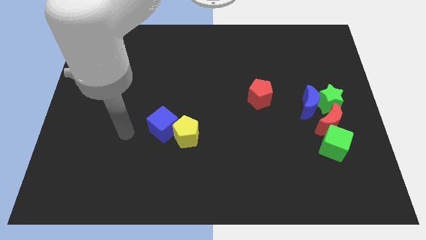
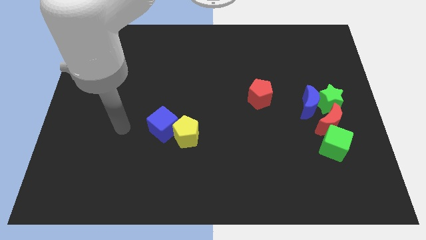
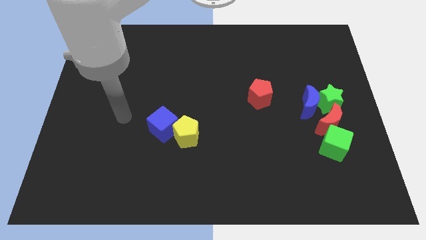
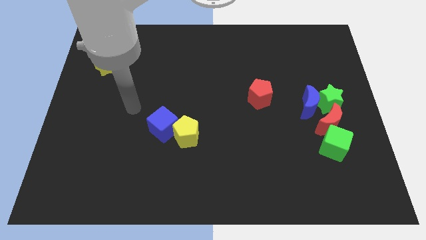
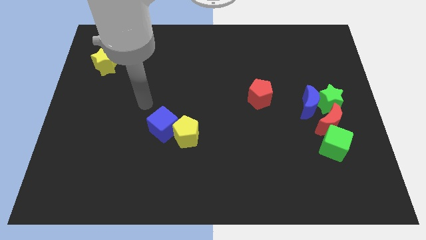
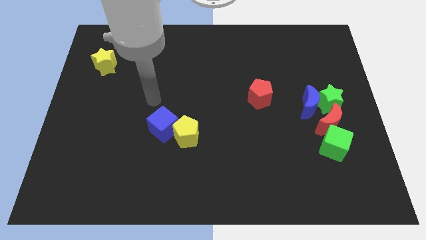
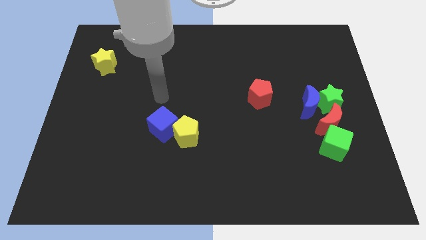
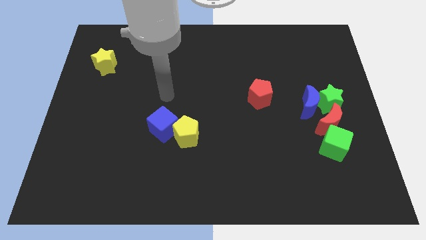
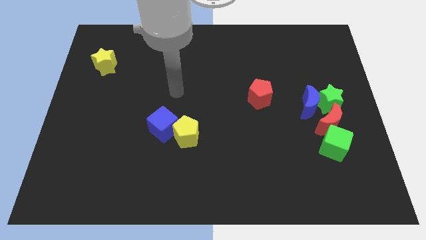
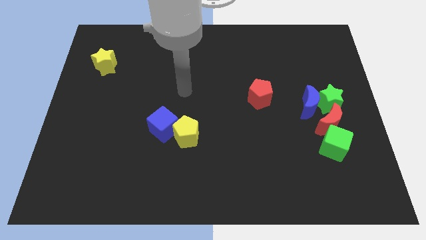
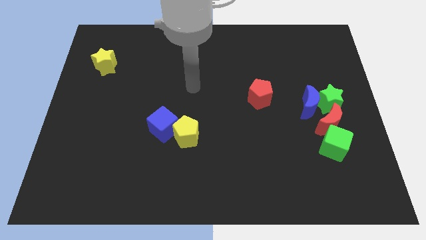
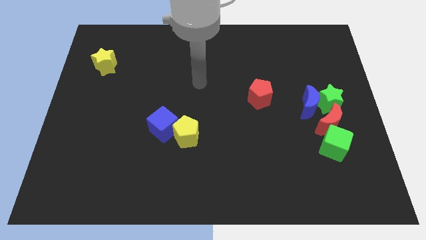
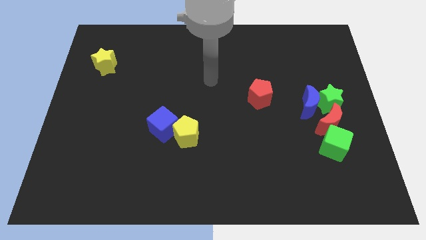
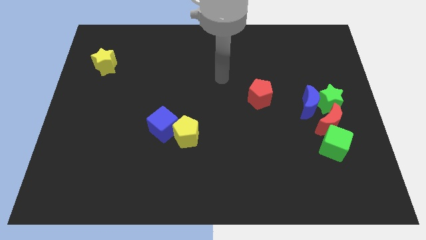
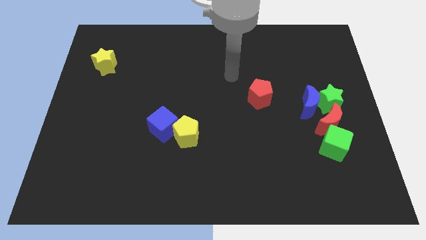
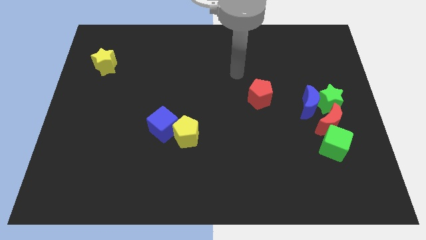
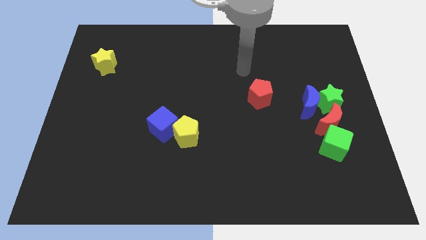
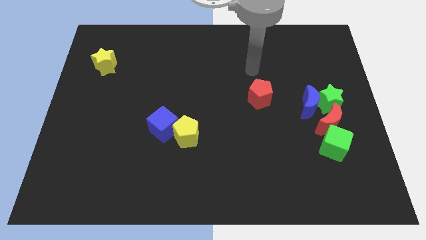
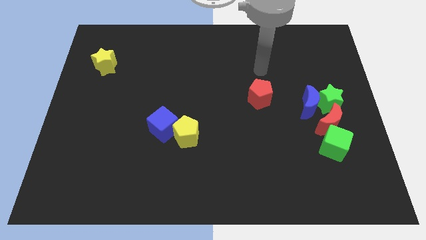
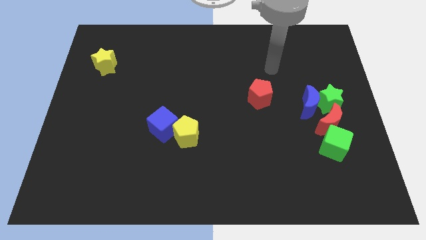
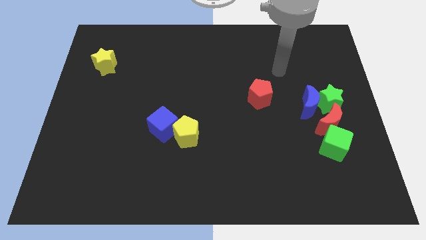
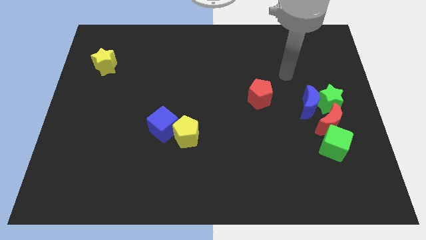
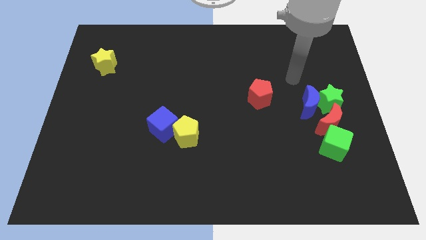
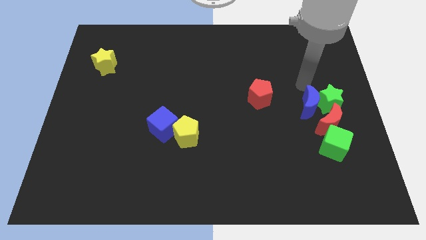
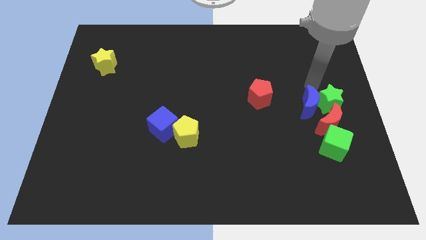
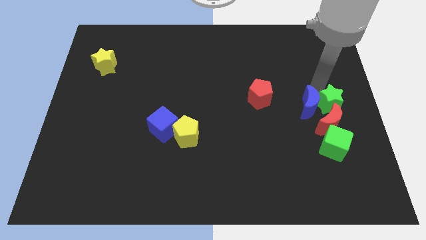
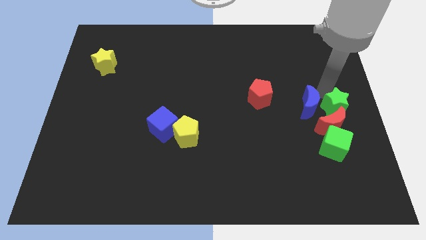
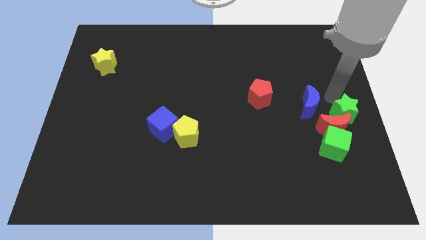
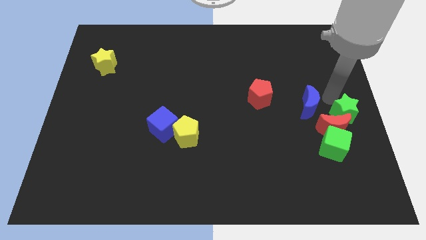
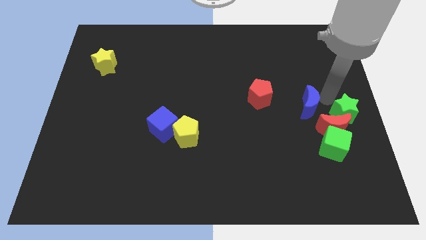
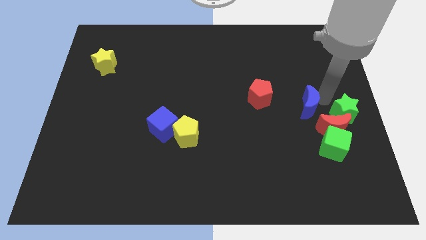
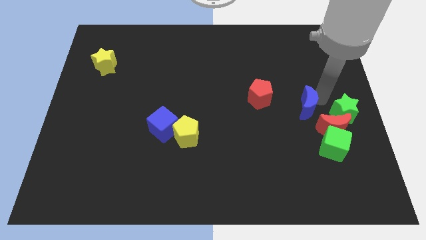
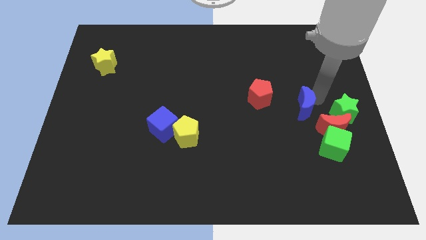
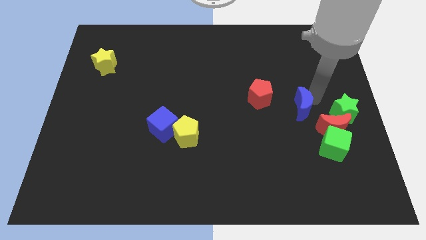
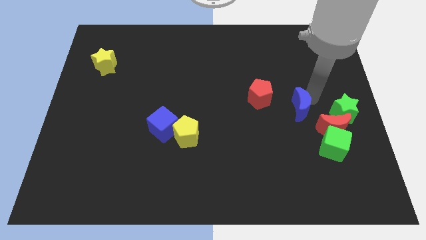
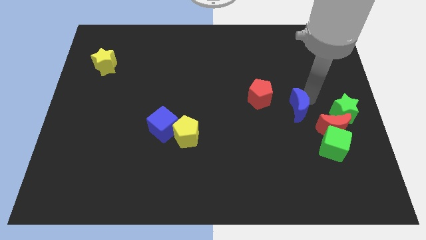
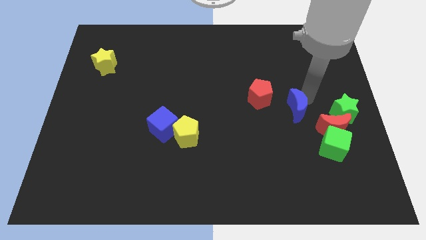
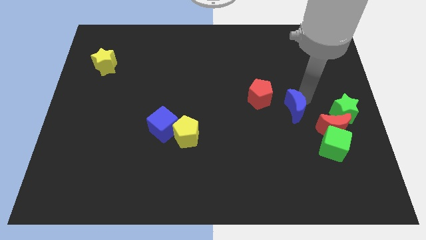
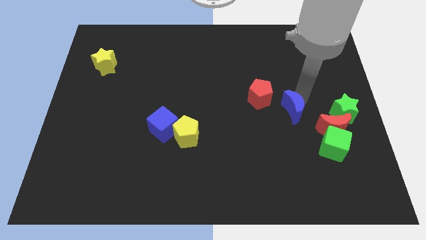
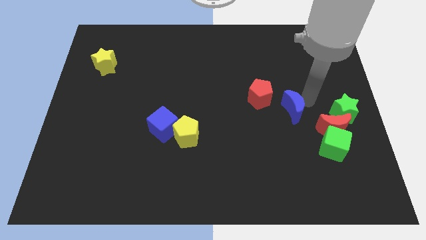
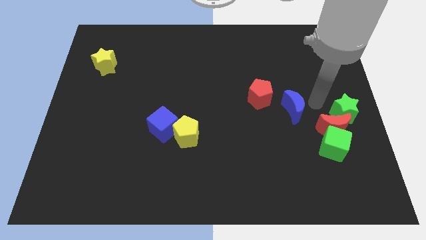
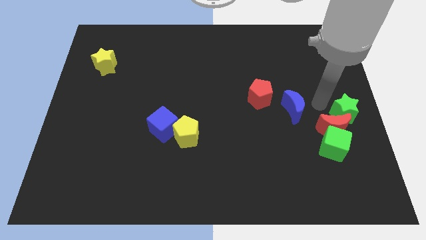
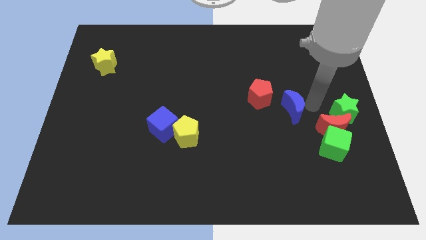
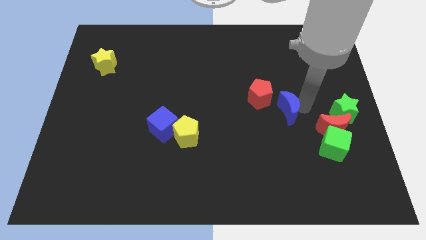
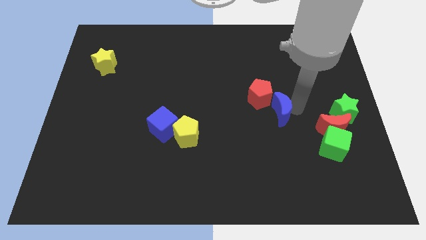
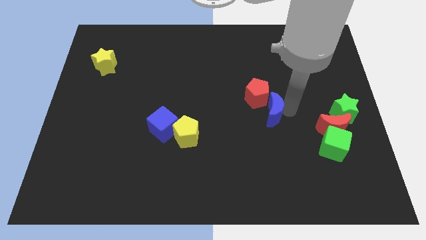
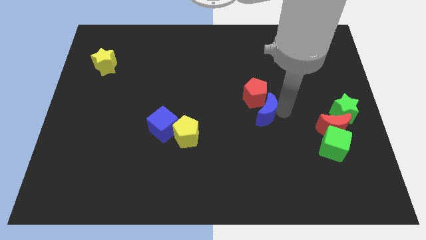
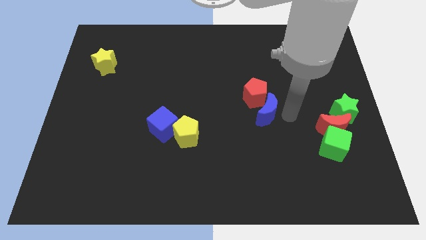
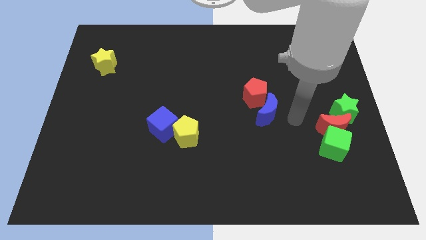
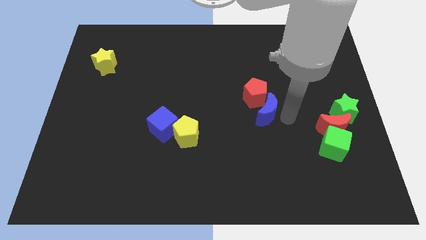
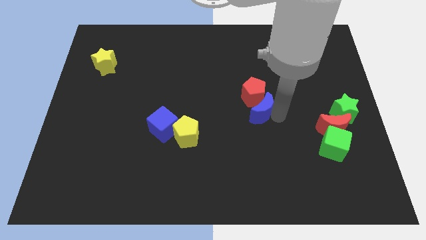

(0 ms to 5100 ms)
put the blue moon to the middle

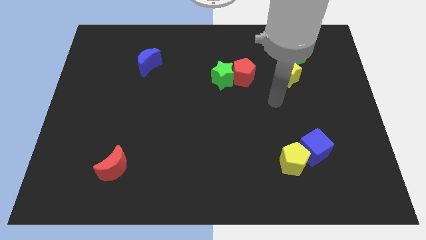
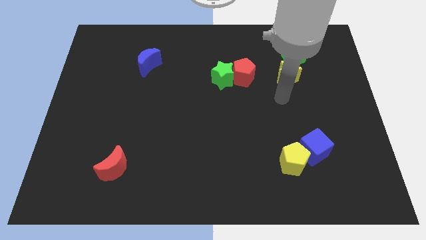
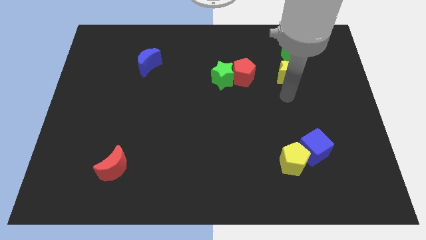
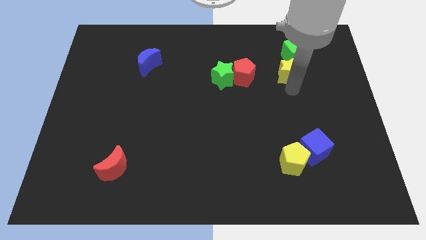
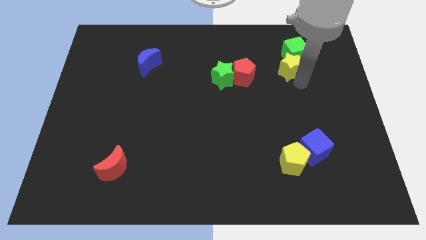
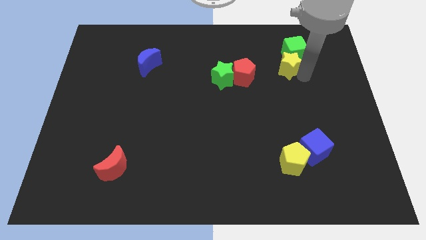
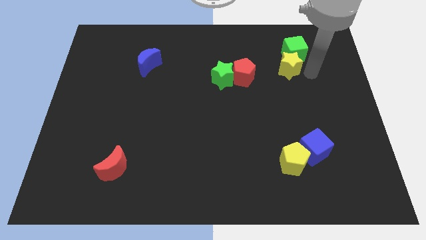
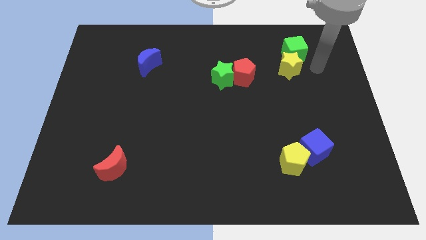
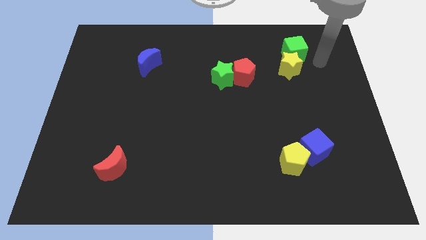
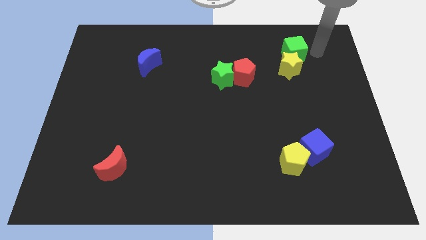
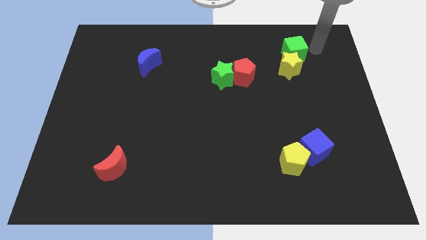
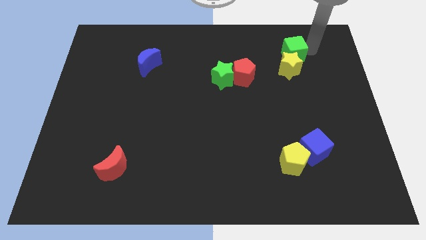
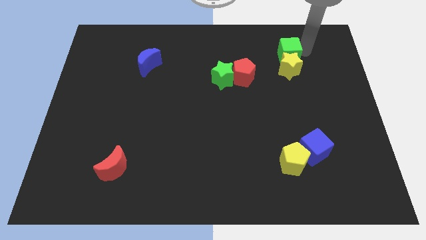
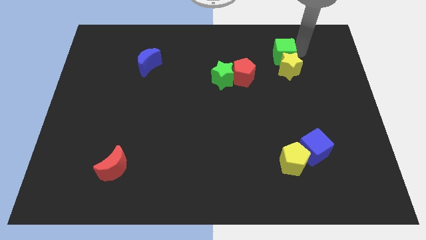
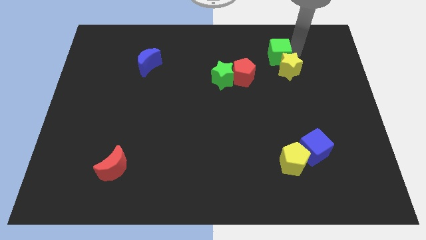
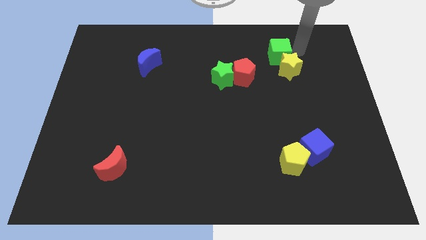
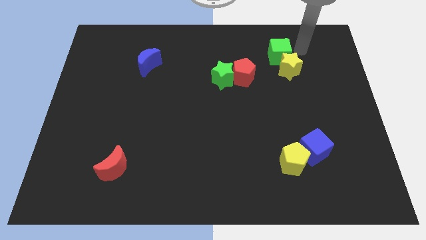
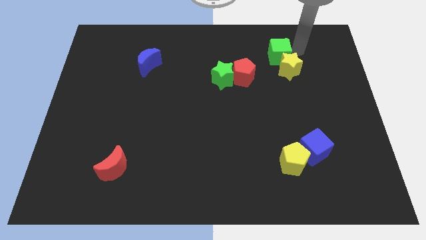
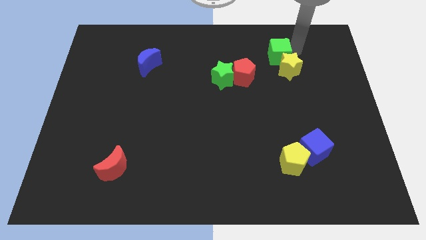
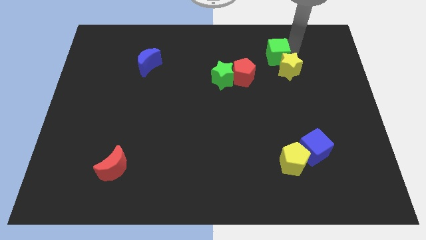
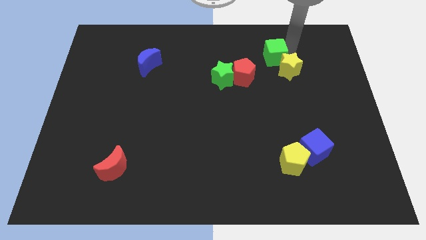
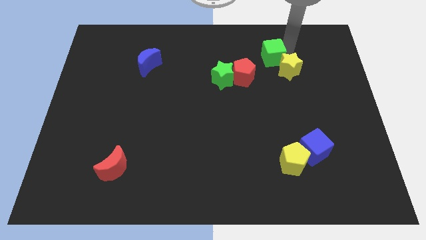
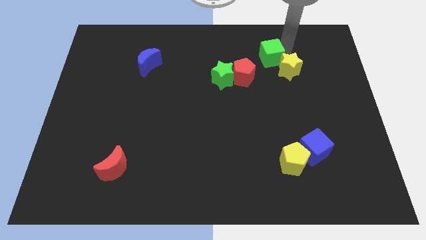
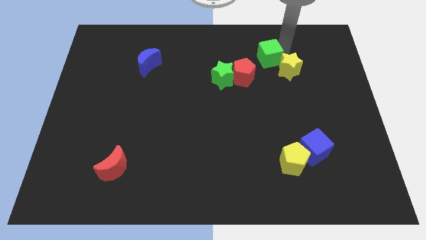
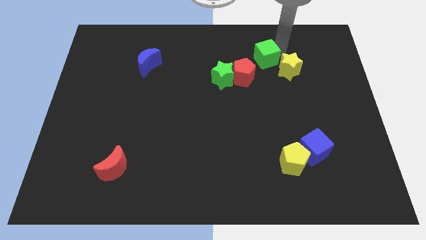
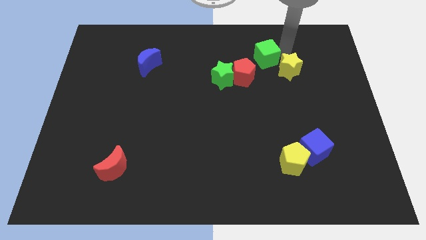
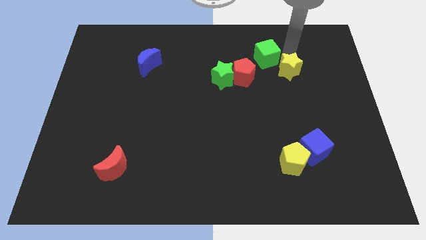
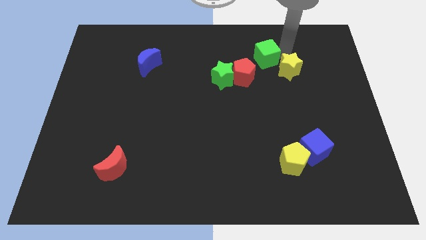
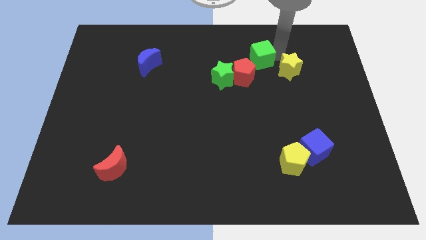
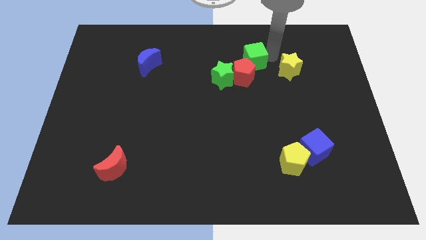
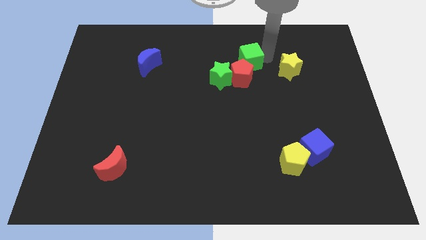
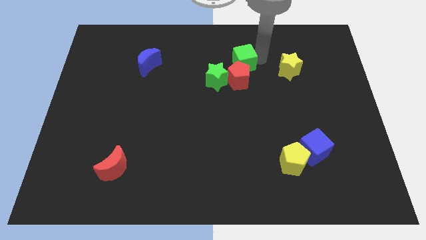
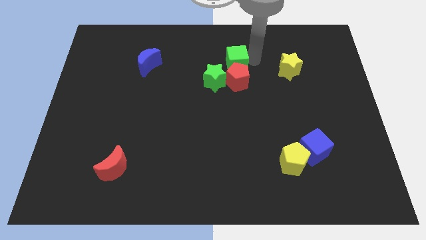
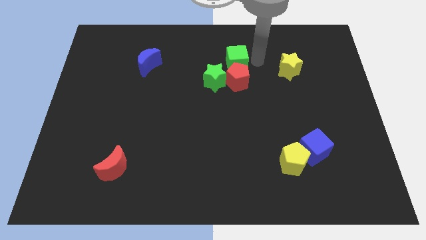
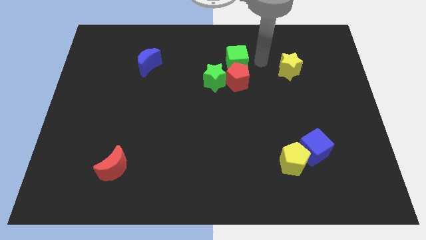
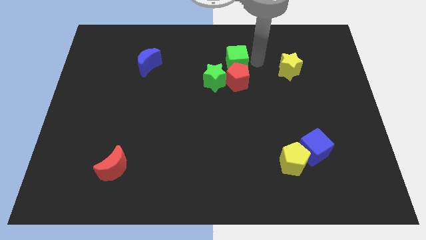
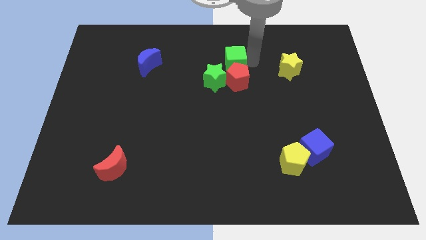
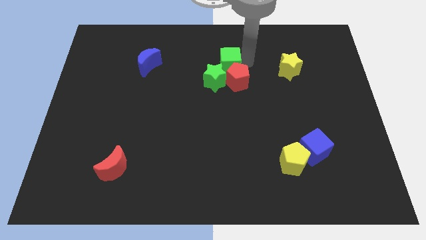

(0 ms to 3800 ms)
move the green cube to the center of the board
